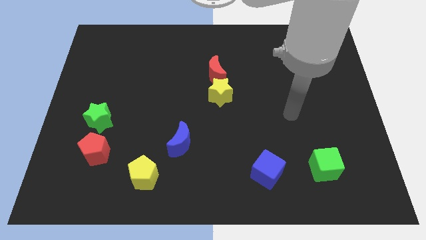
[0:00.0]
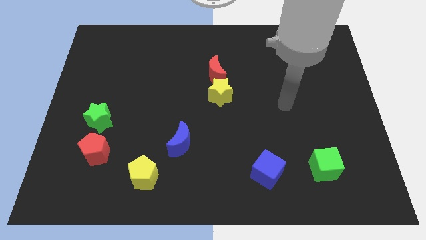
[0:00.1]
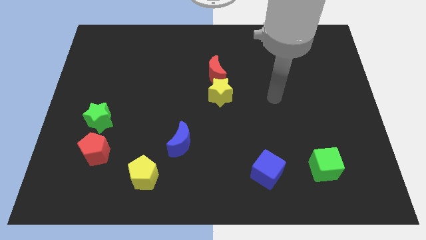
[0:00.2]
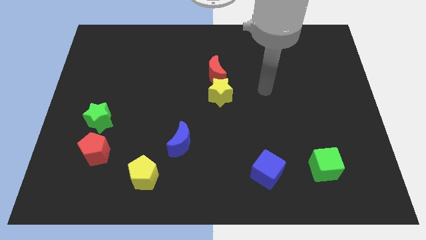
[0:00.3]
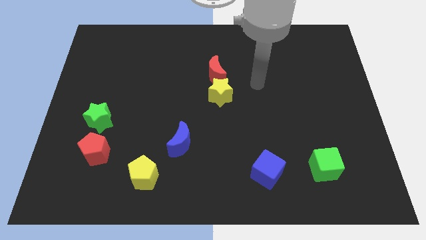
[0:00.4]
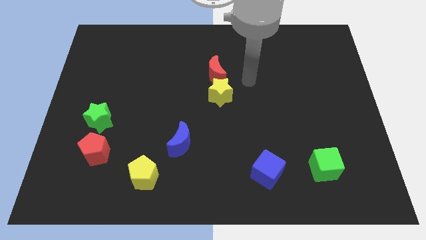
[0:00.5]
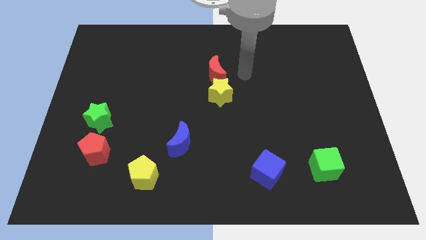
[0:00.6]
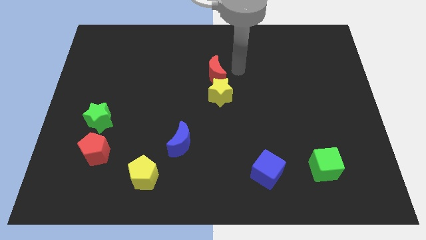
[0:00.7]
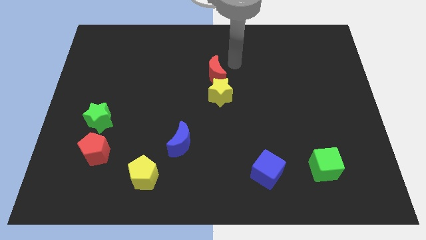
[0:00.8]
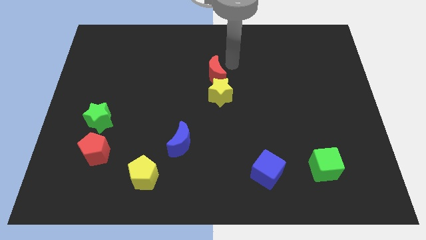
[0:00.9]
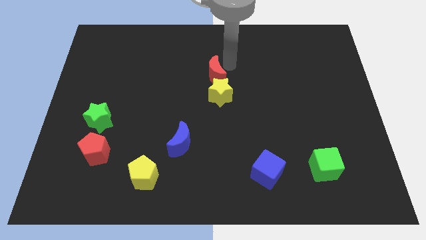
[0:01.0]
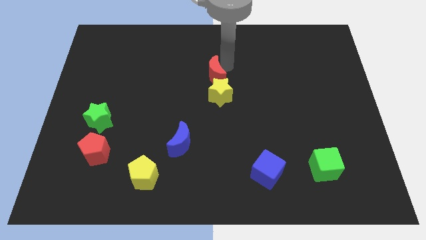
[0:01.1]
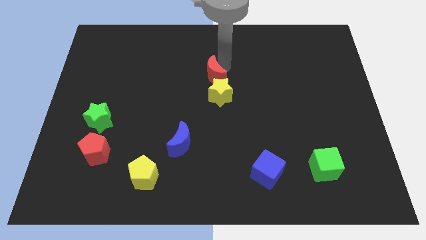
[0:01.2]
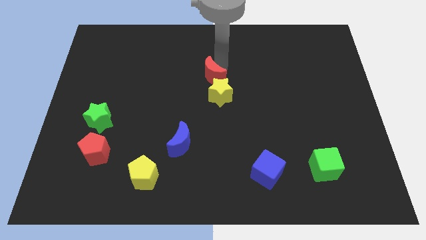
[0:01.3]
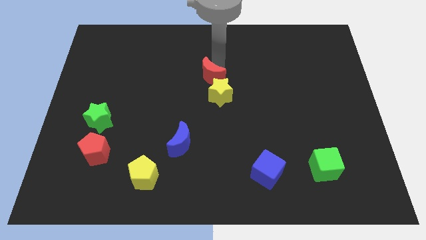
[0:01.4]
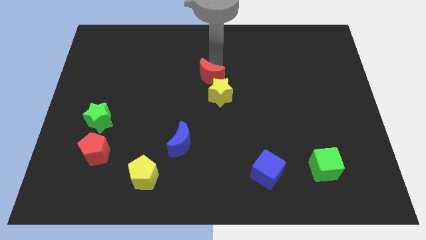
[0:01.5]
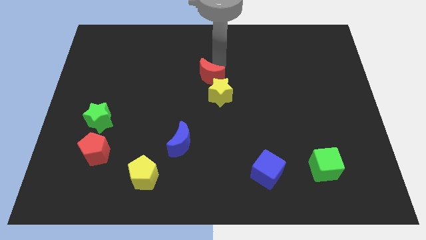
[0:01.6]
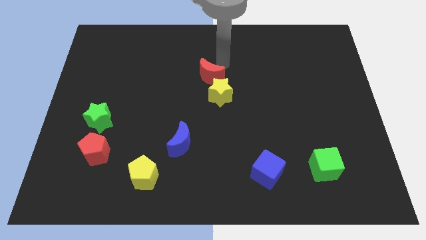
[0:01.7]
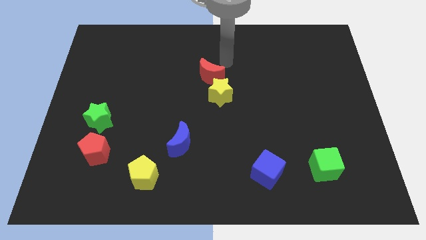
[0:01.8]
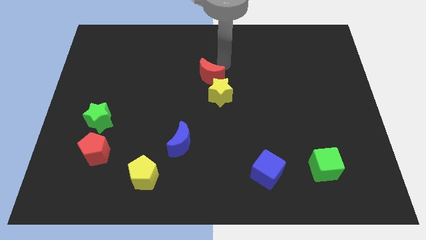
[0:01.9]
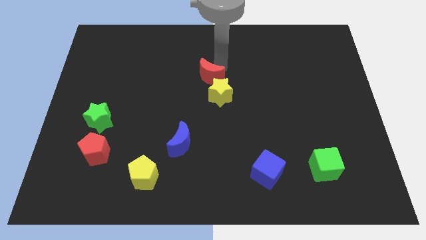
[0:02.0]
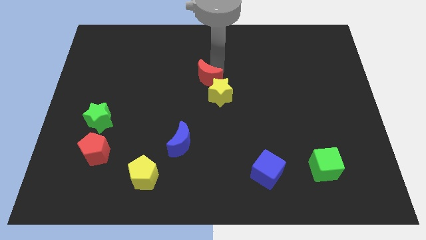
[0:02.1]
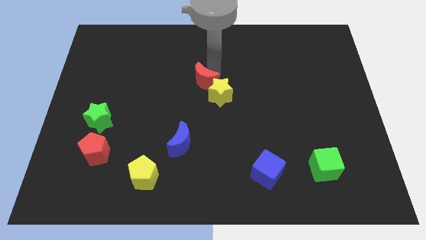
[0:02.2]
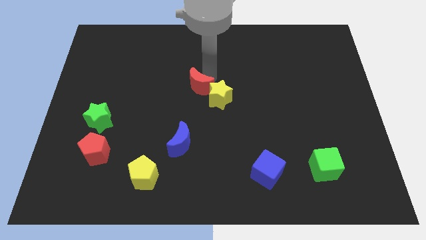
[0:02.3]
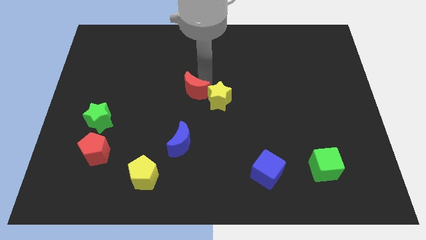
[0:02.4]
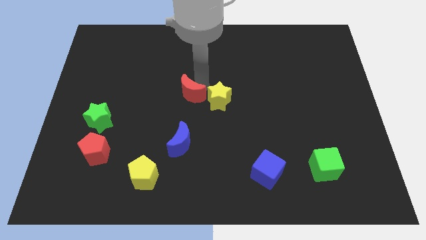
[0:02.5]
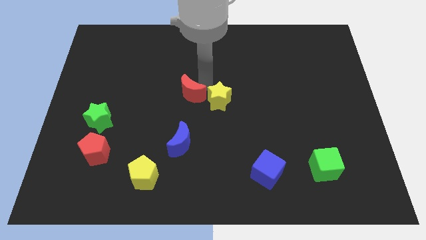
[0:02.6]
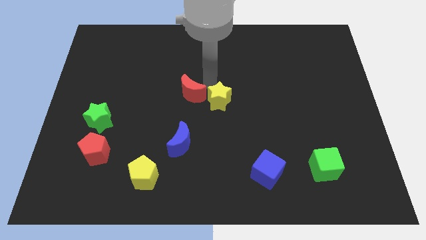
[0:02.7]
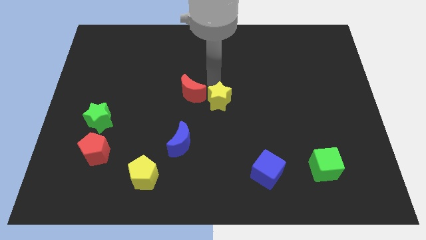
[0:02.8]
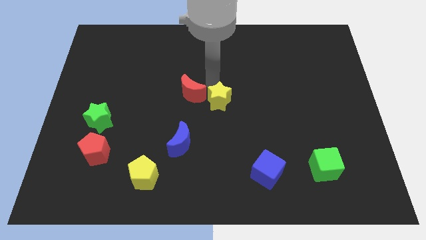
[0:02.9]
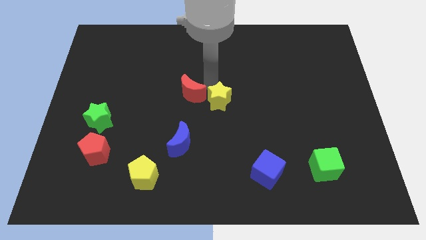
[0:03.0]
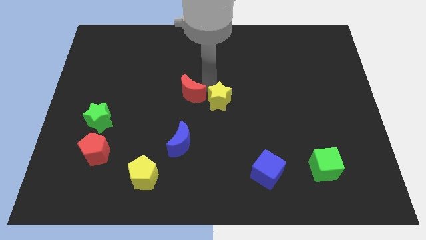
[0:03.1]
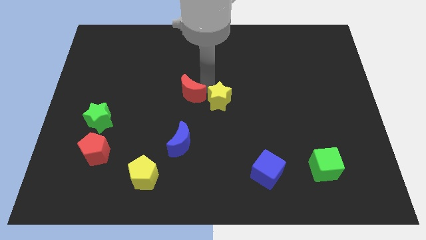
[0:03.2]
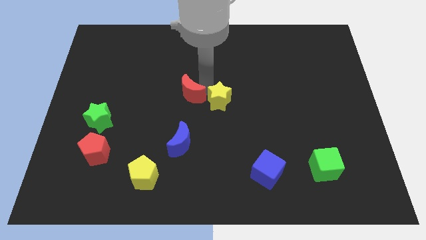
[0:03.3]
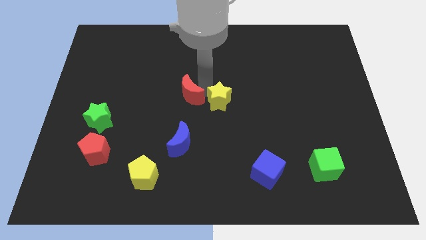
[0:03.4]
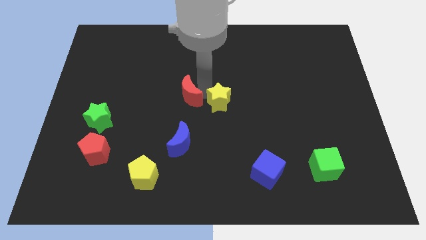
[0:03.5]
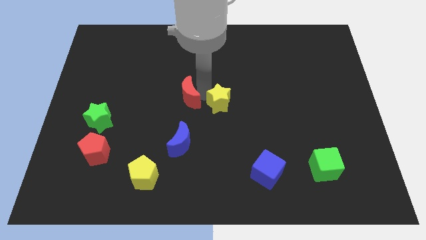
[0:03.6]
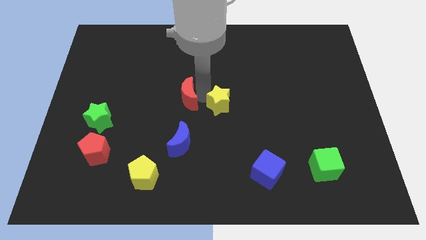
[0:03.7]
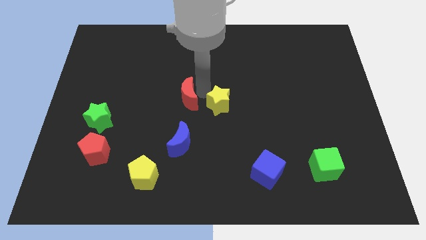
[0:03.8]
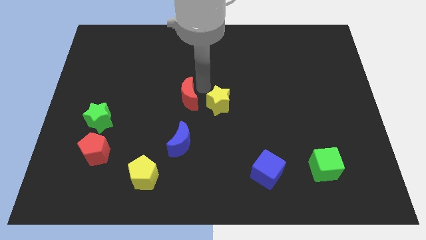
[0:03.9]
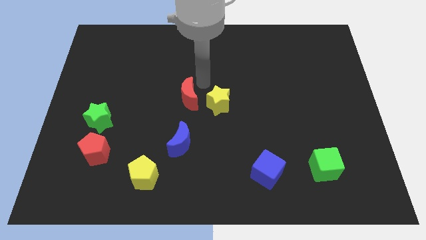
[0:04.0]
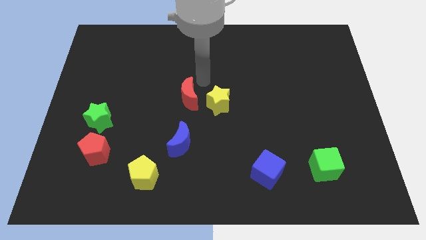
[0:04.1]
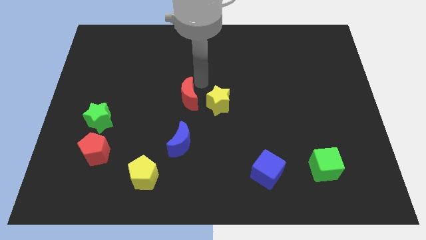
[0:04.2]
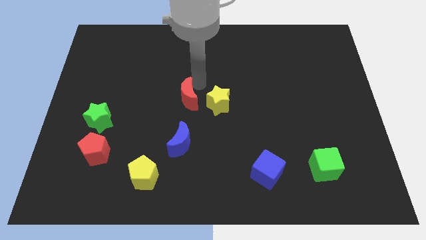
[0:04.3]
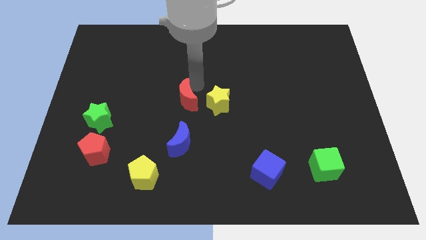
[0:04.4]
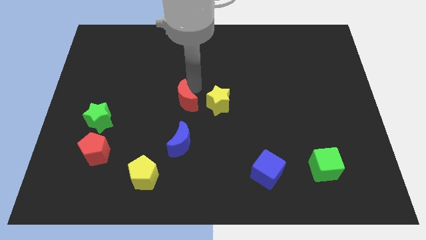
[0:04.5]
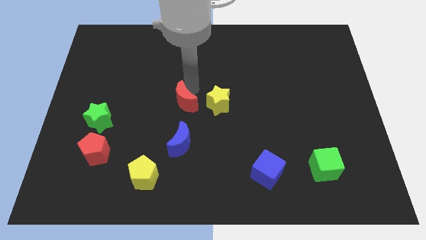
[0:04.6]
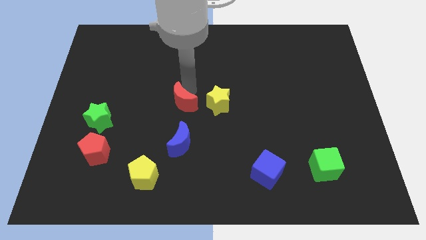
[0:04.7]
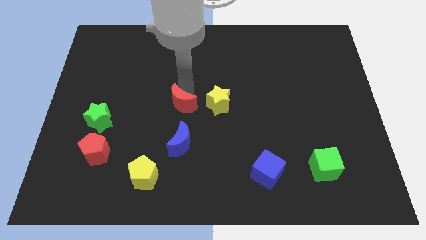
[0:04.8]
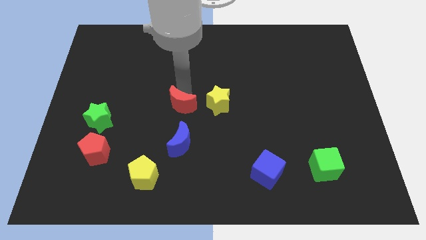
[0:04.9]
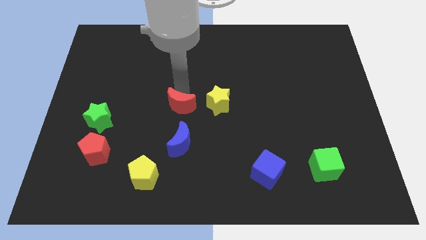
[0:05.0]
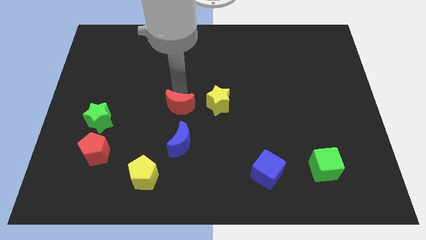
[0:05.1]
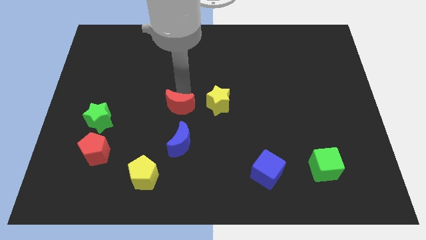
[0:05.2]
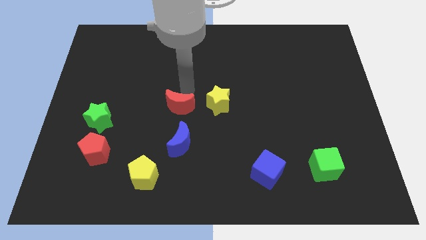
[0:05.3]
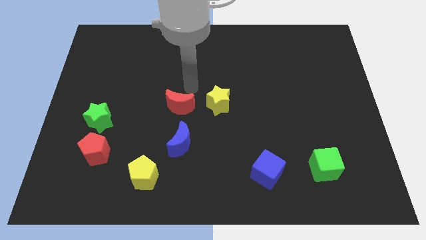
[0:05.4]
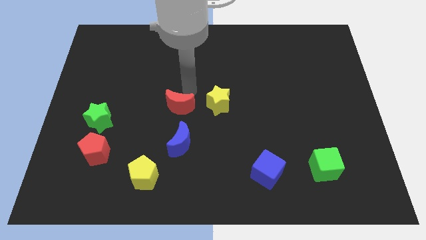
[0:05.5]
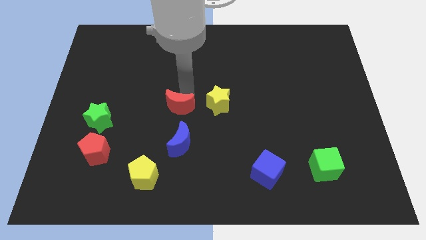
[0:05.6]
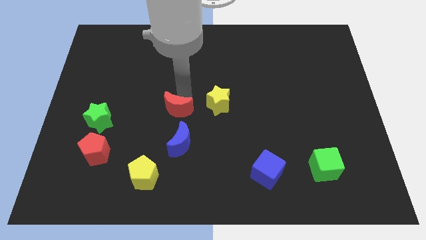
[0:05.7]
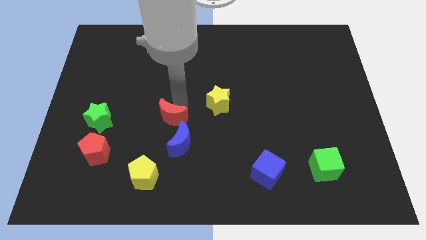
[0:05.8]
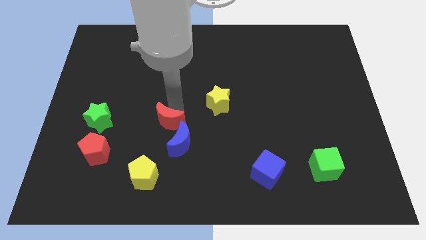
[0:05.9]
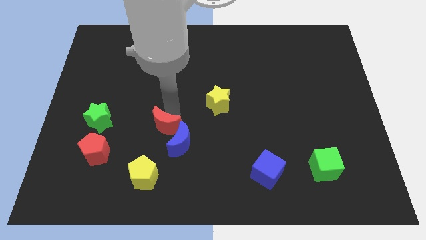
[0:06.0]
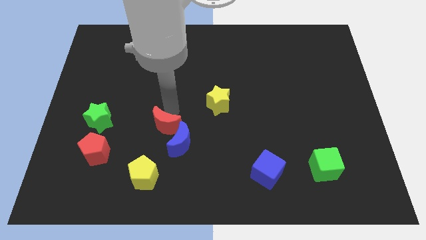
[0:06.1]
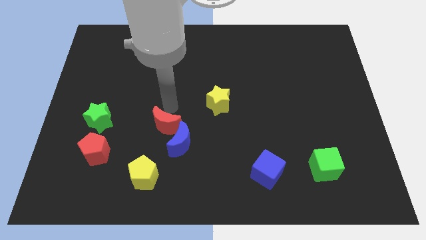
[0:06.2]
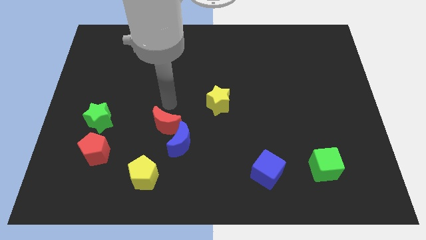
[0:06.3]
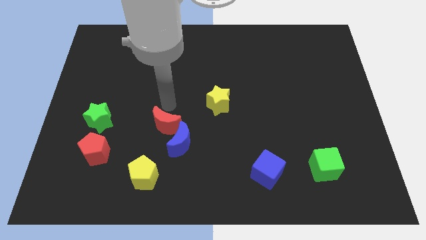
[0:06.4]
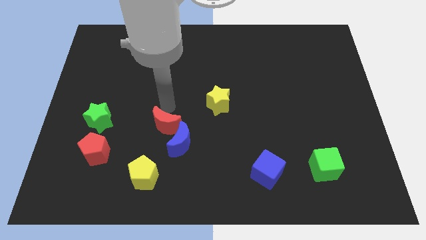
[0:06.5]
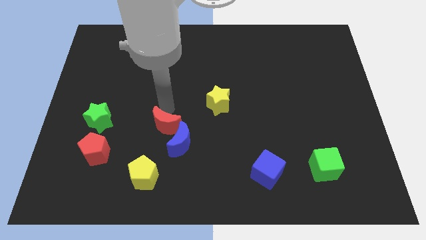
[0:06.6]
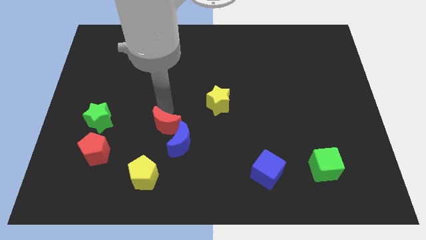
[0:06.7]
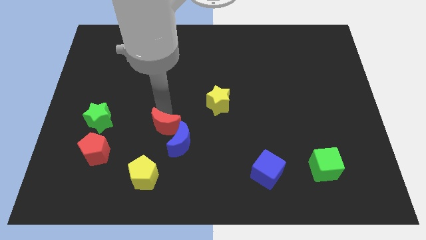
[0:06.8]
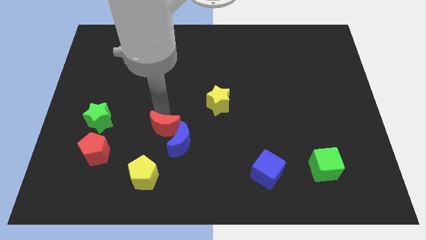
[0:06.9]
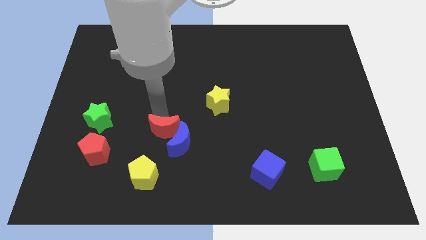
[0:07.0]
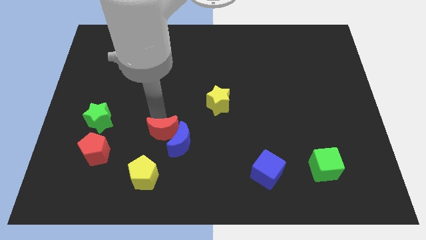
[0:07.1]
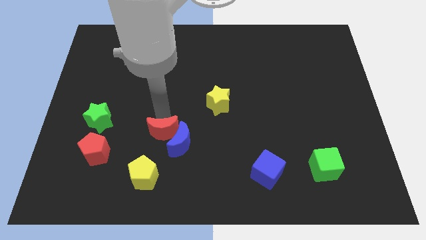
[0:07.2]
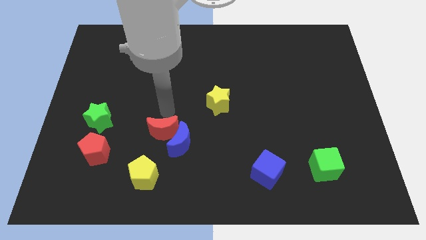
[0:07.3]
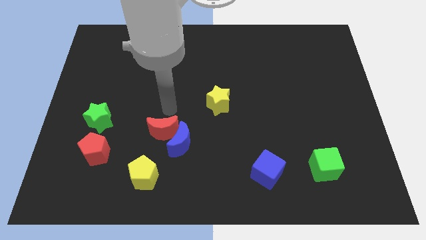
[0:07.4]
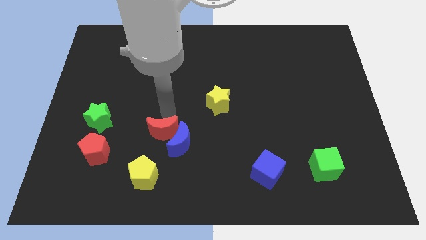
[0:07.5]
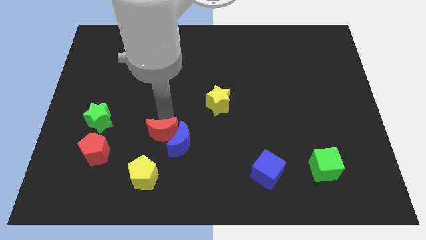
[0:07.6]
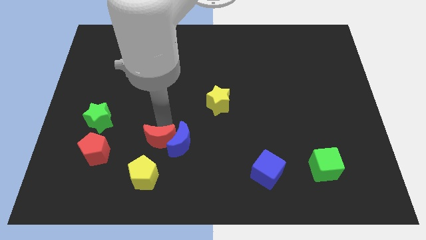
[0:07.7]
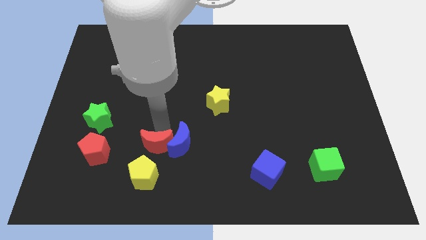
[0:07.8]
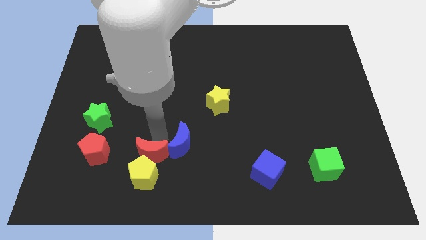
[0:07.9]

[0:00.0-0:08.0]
push the red moon next to the yellow pentagon
